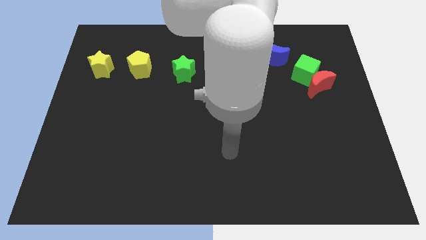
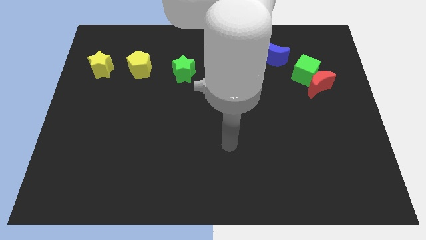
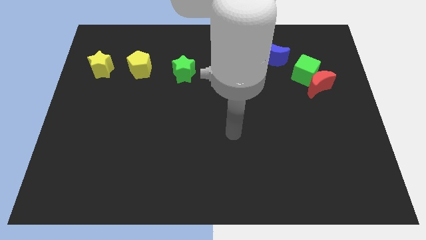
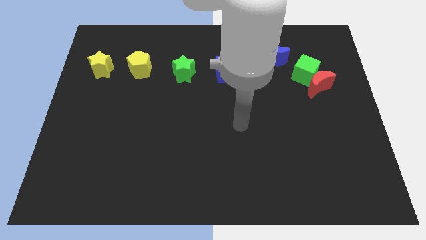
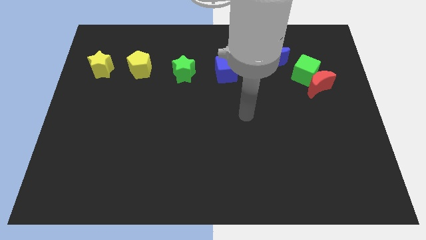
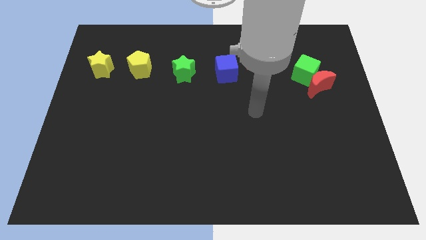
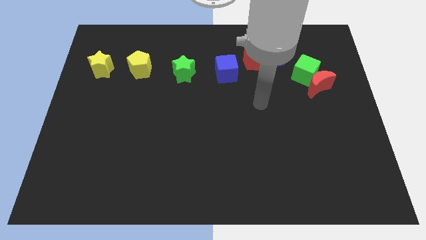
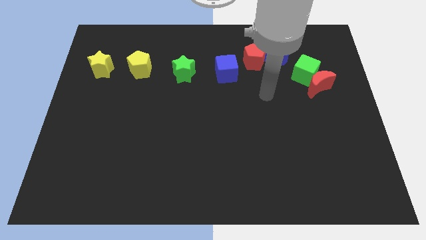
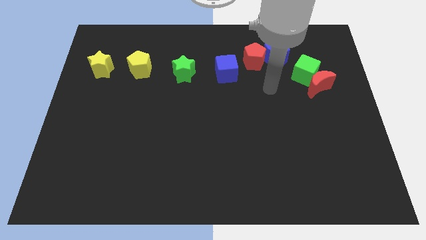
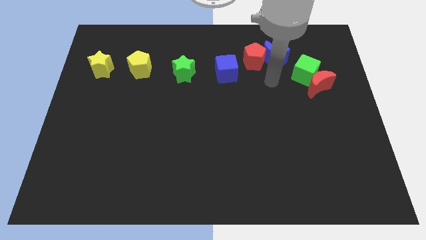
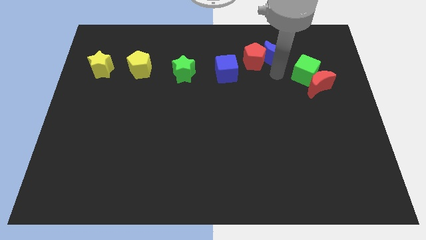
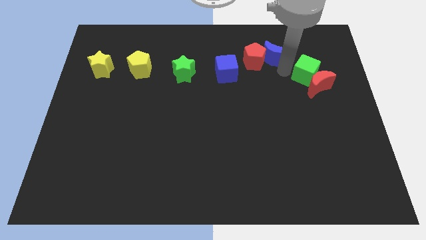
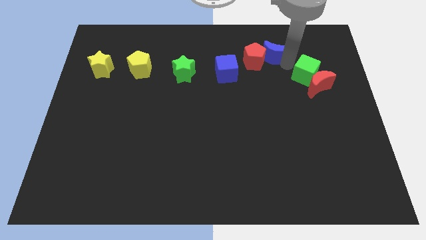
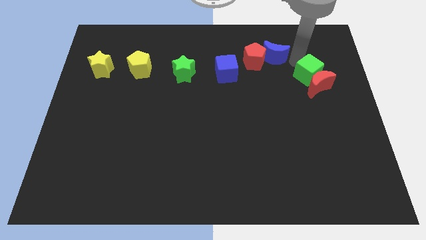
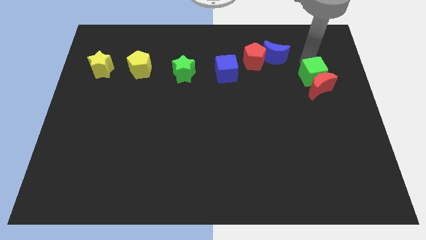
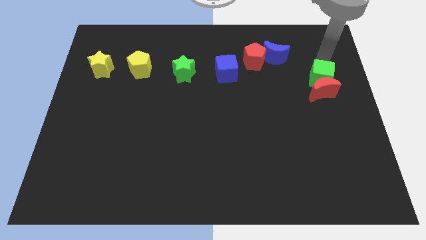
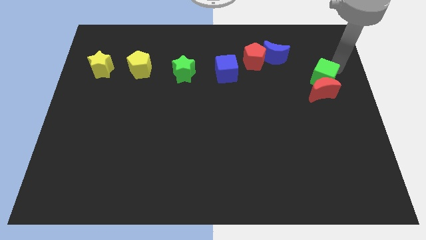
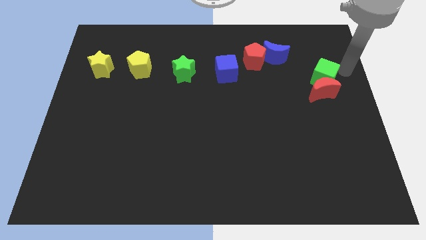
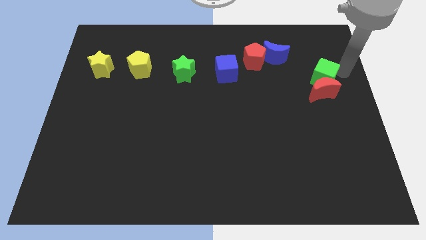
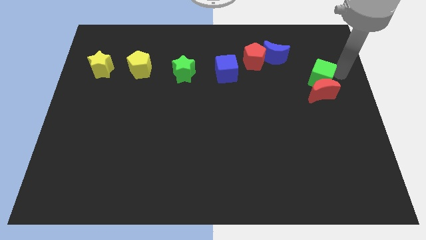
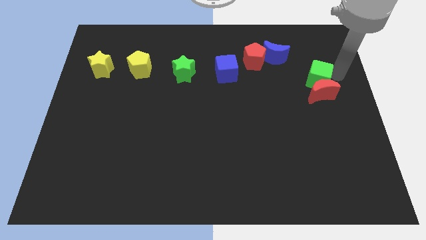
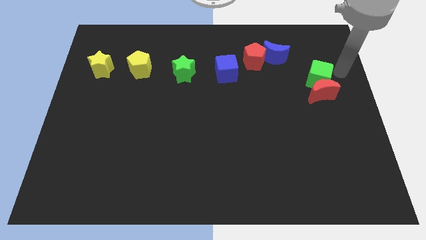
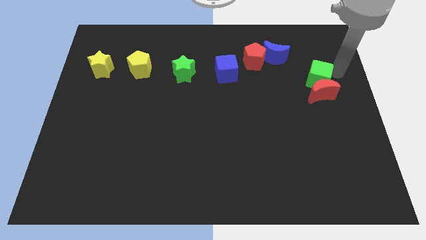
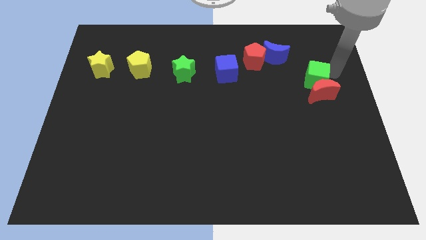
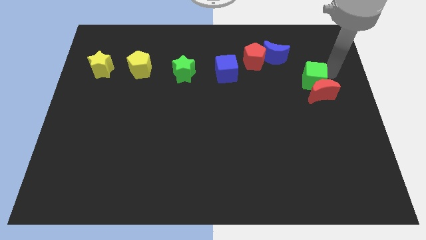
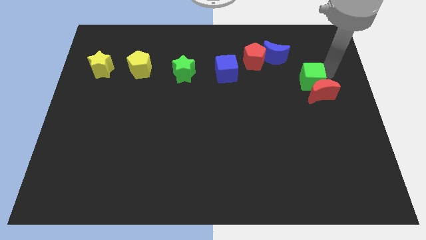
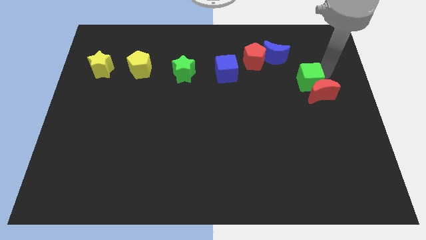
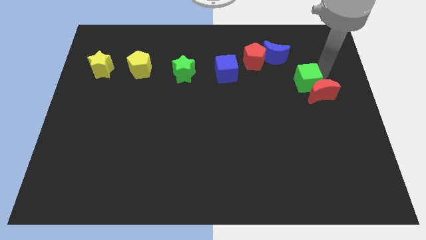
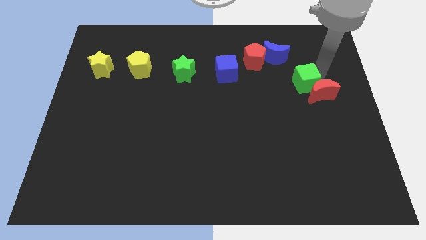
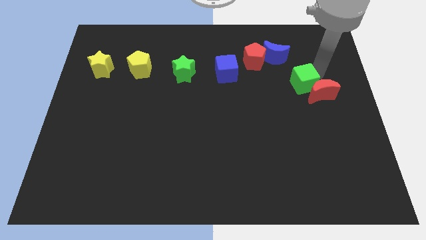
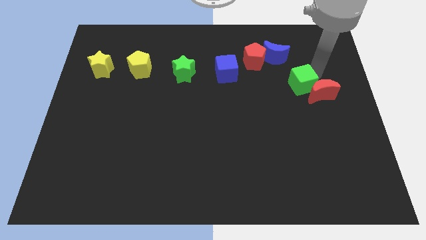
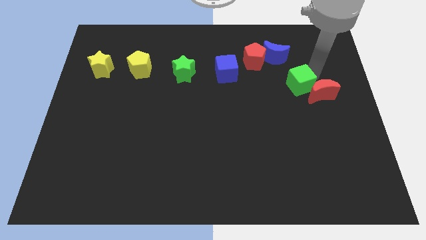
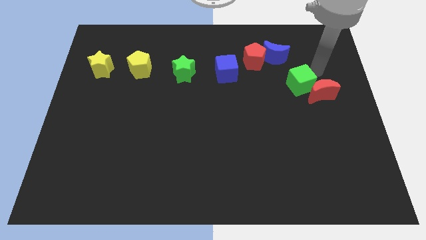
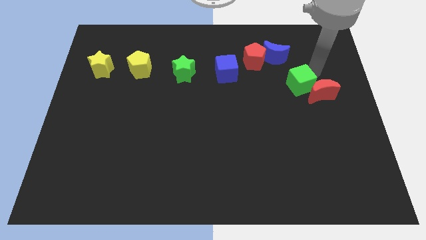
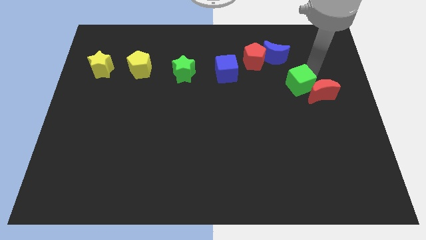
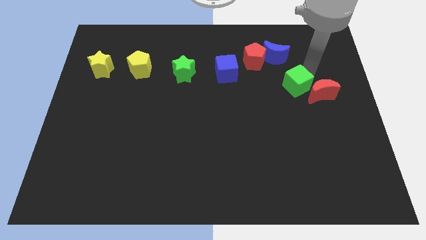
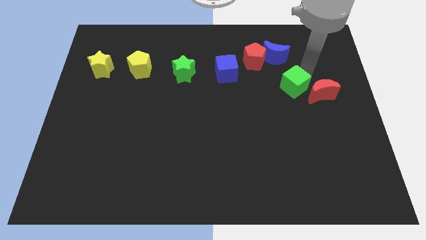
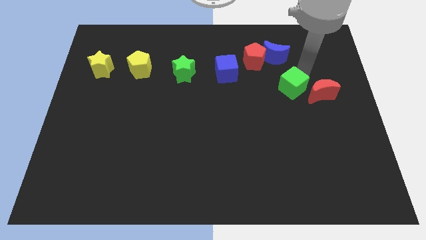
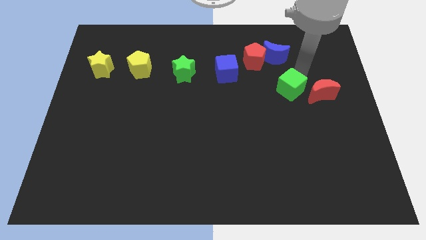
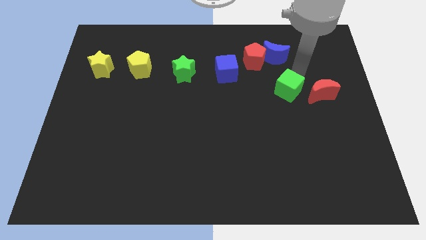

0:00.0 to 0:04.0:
slightly slide the green cube down and then left

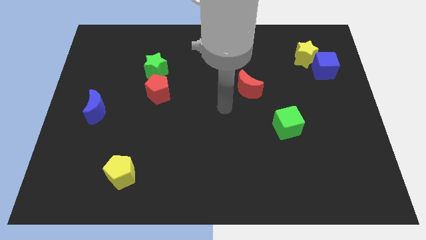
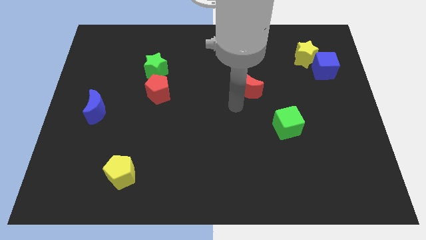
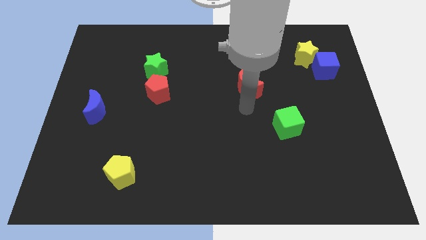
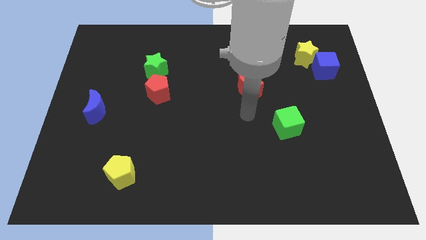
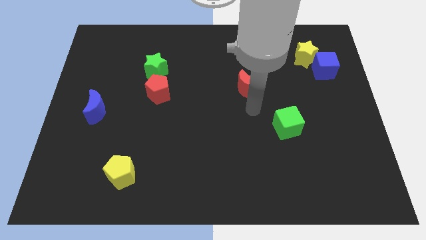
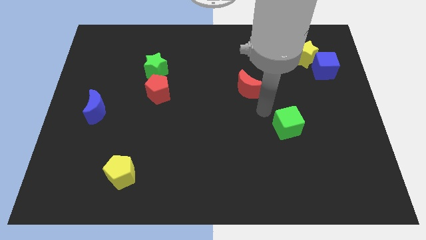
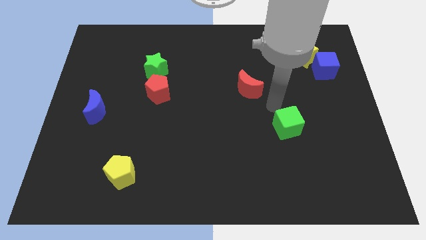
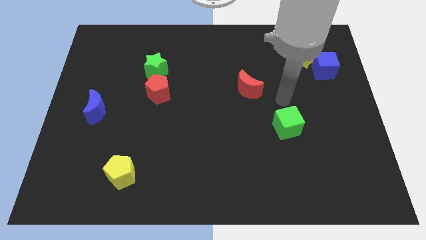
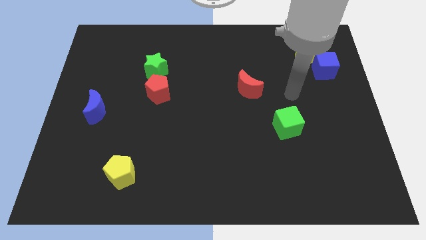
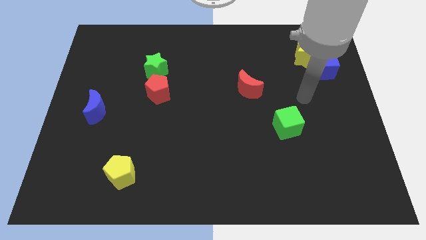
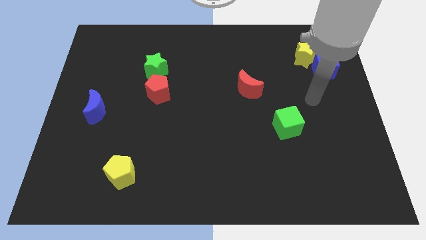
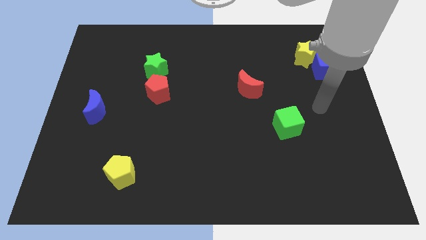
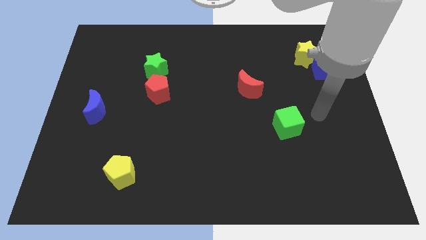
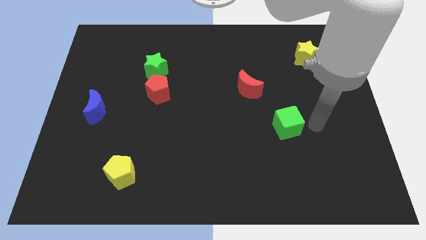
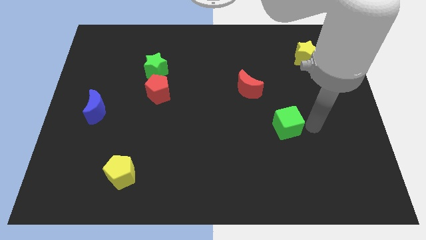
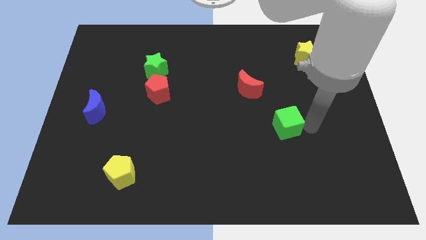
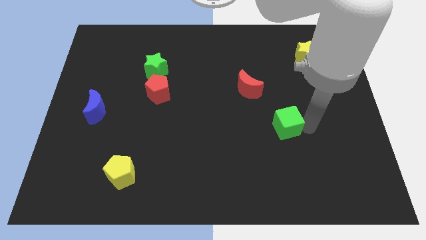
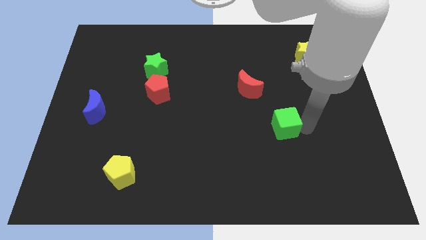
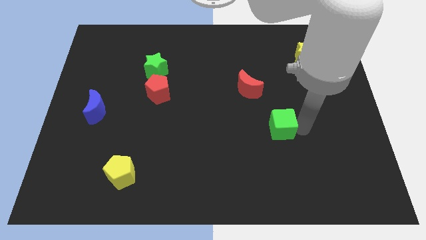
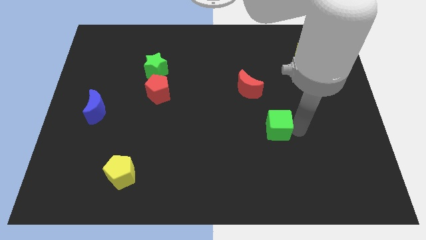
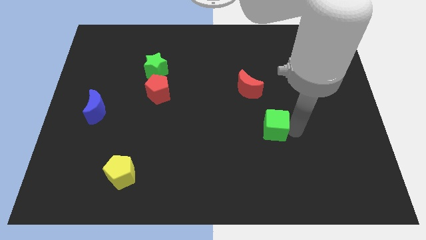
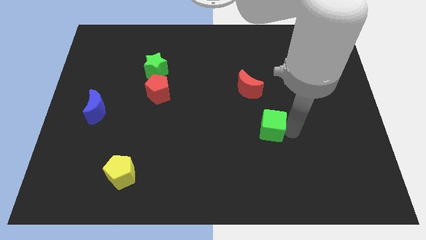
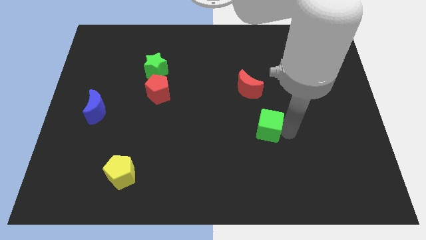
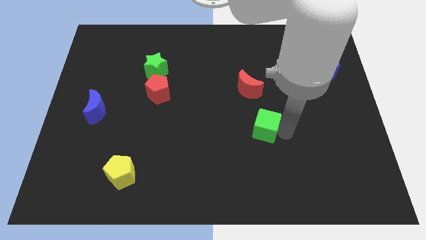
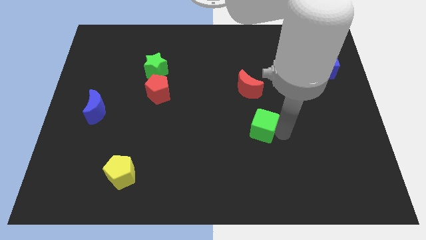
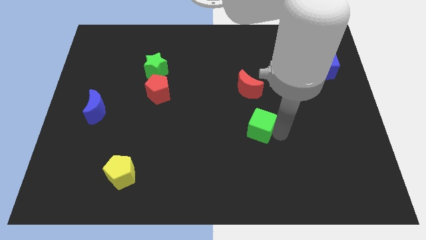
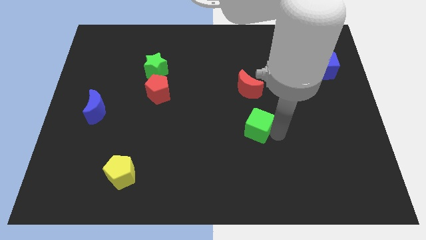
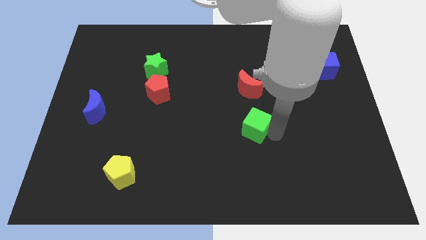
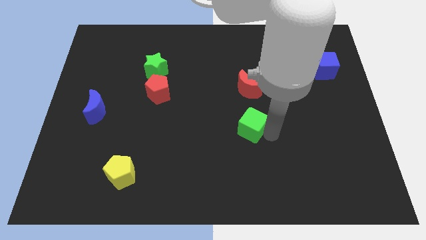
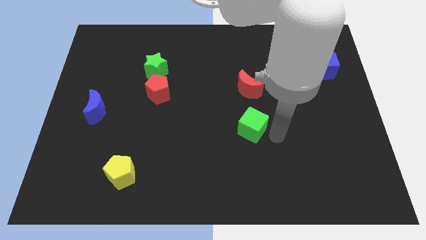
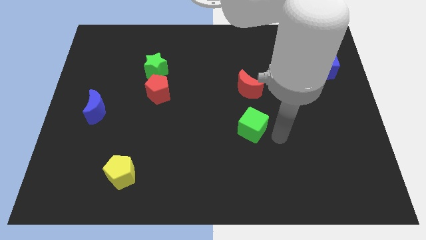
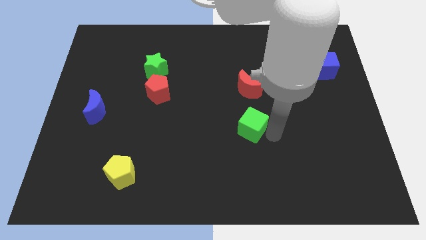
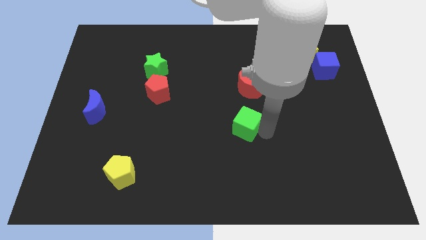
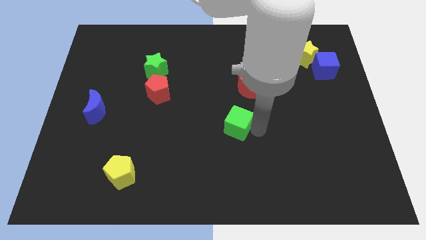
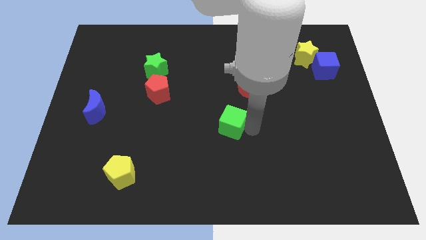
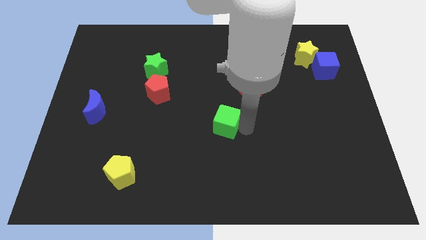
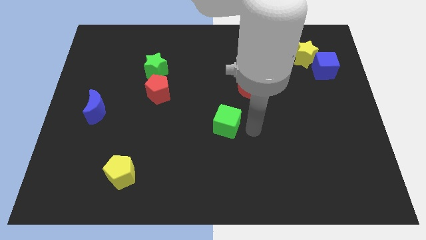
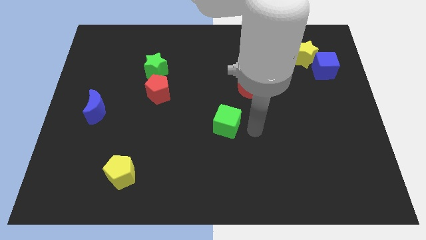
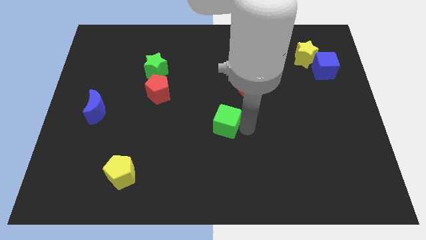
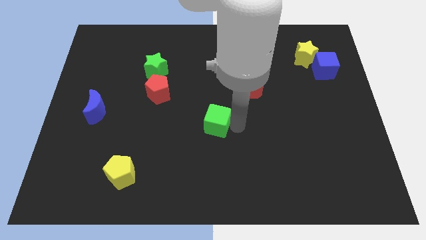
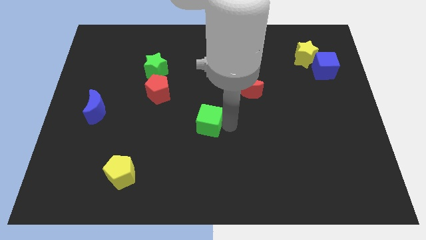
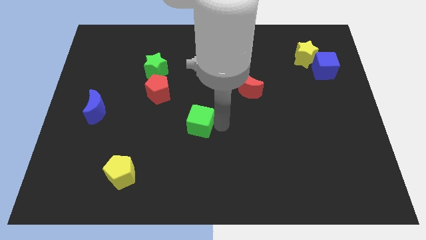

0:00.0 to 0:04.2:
push the green cube left
